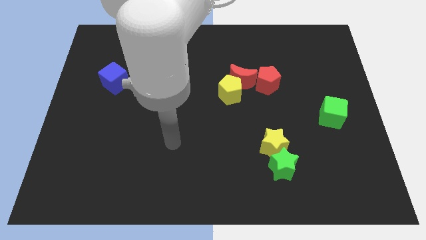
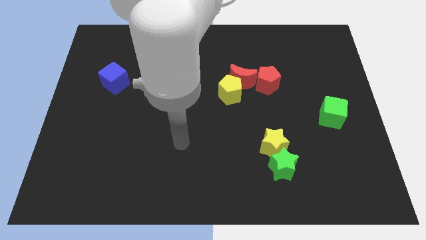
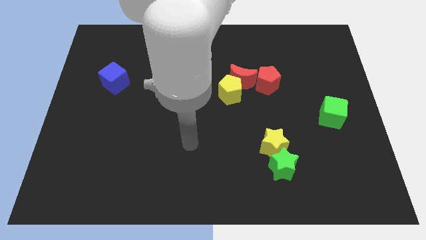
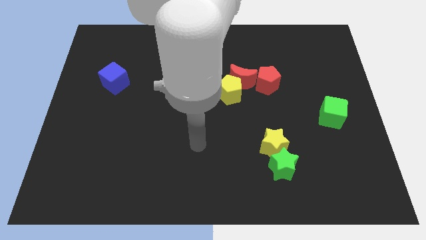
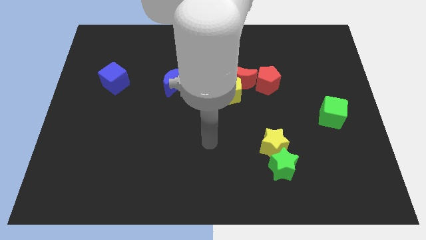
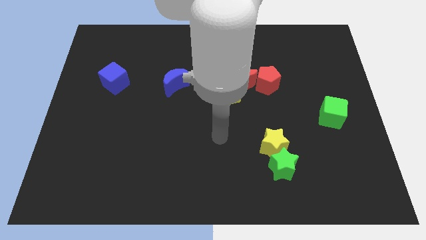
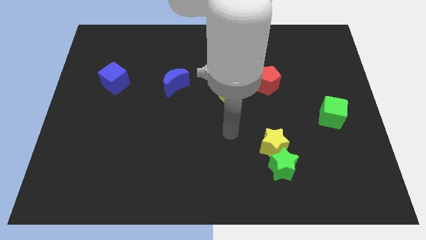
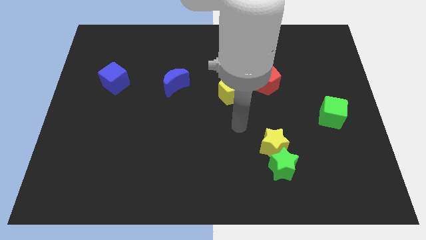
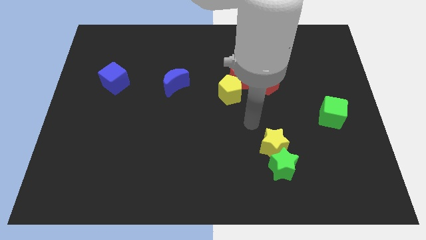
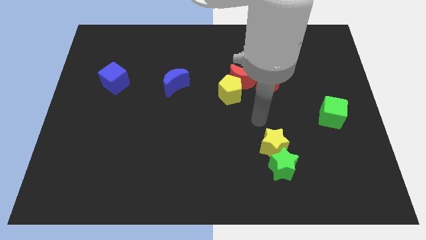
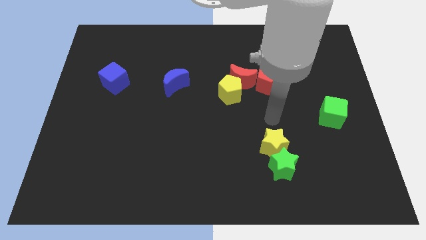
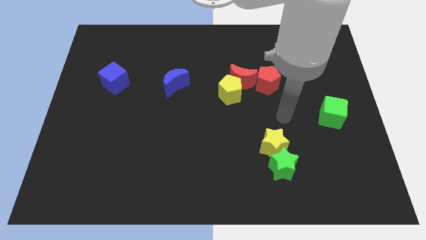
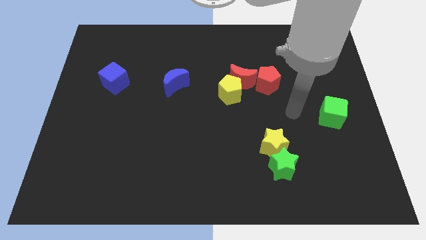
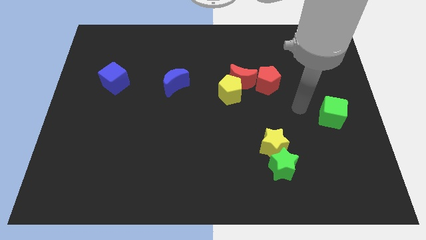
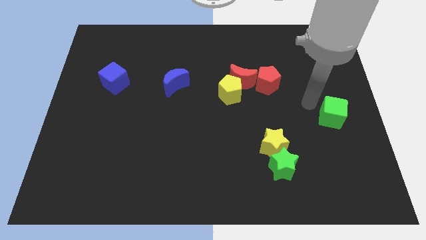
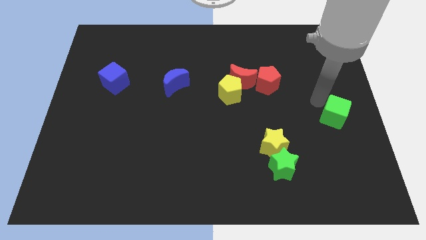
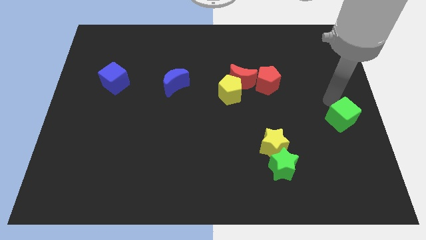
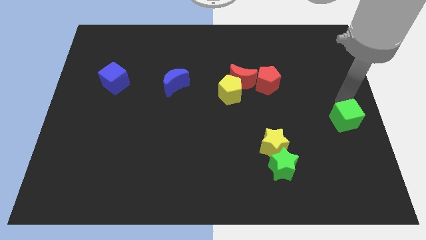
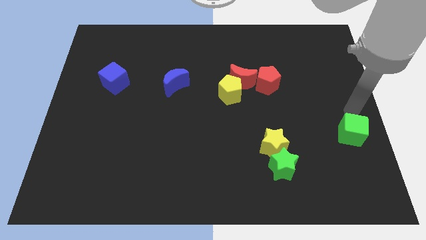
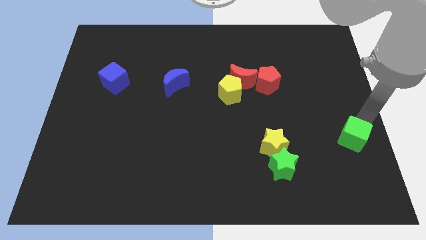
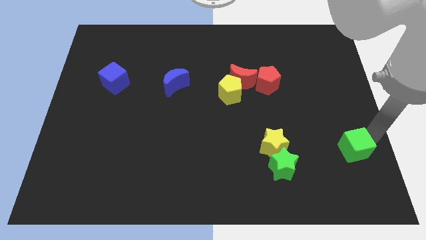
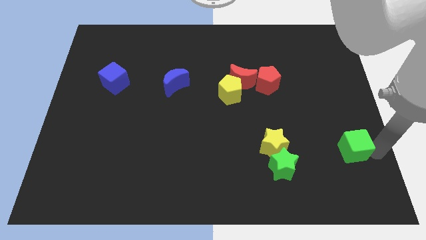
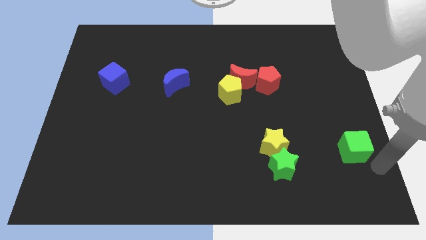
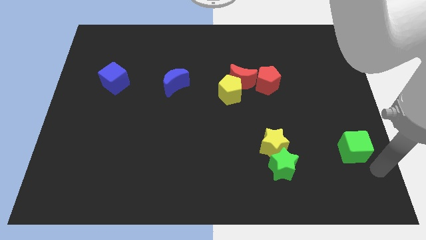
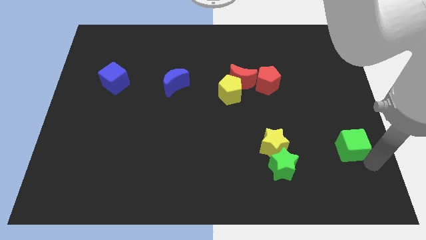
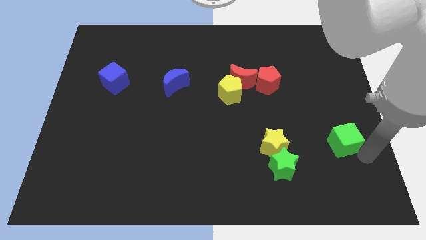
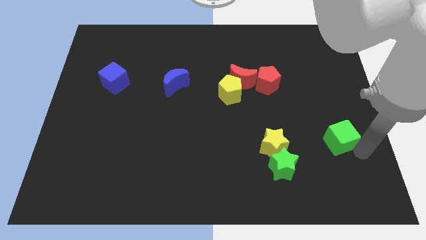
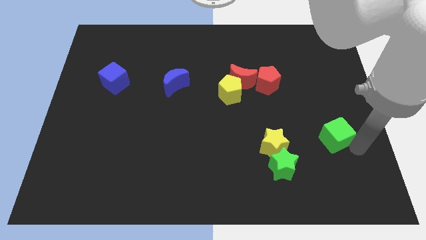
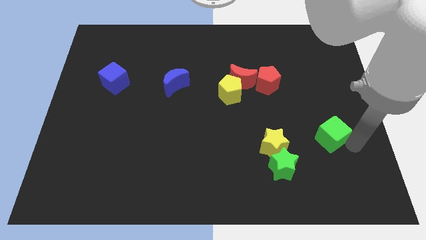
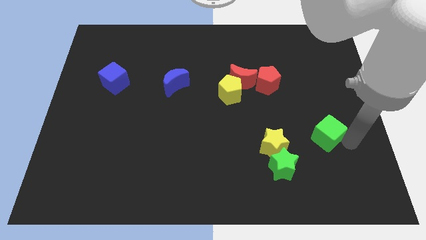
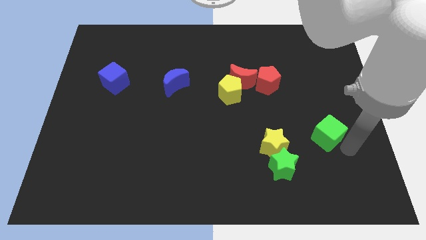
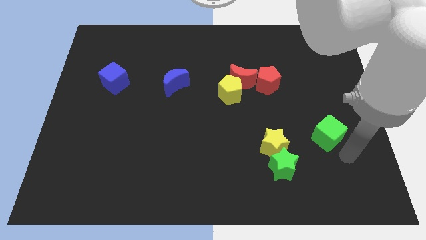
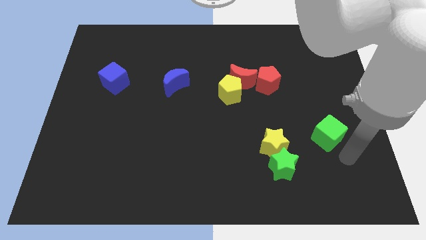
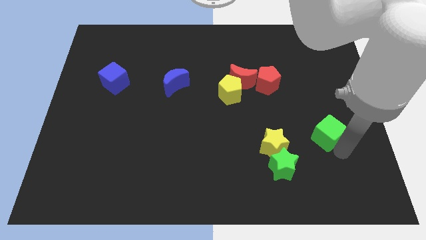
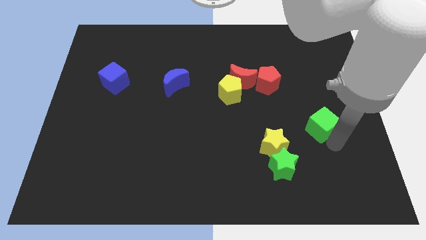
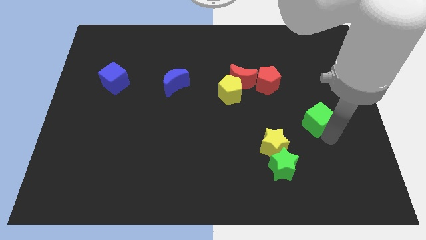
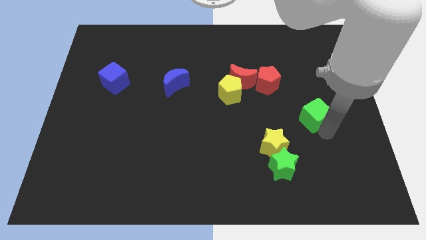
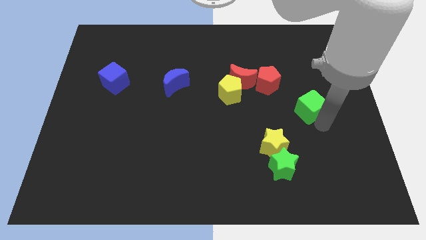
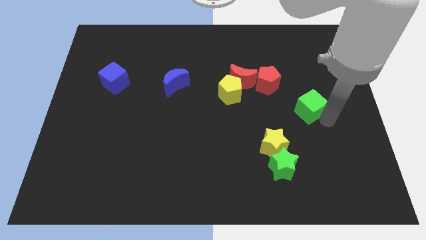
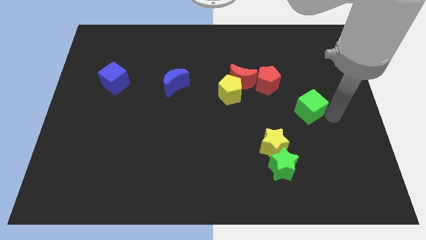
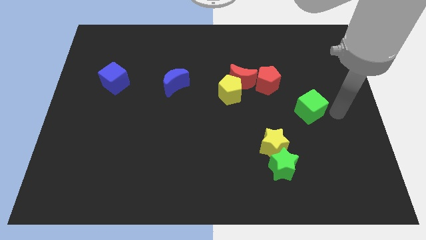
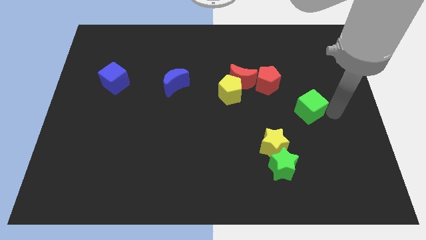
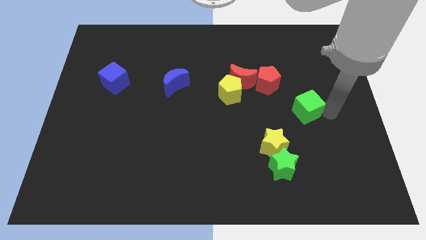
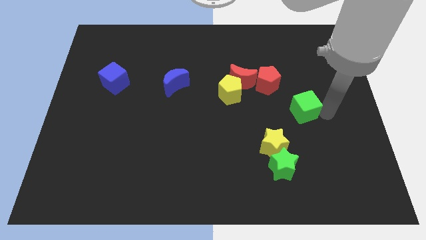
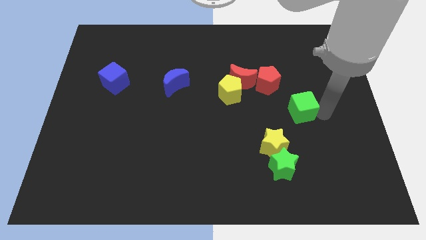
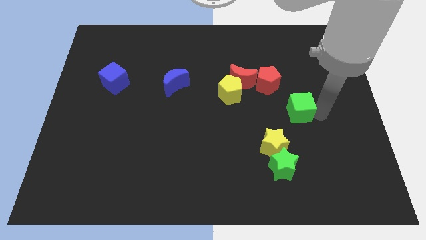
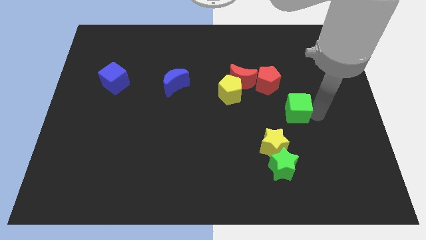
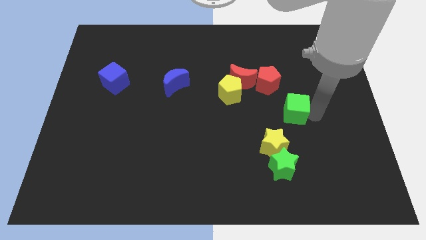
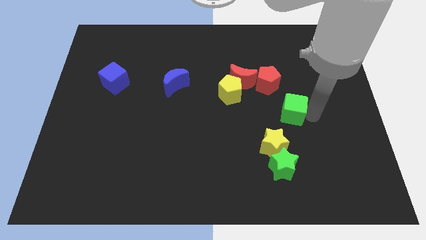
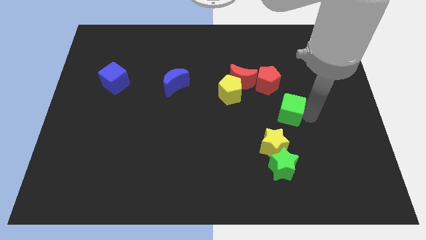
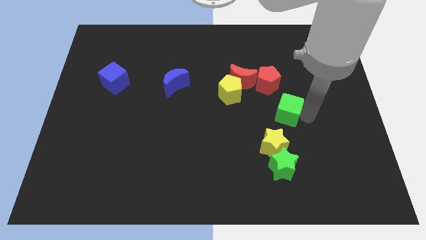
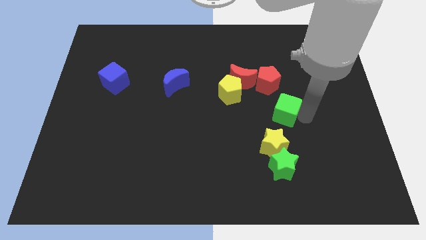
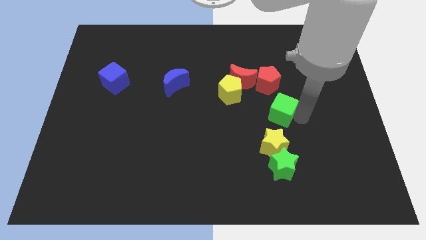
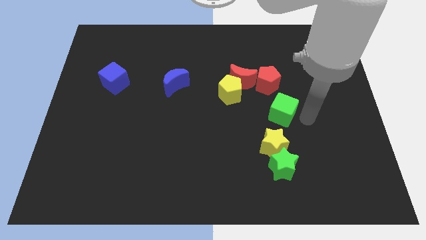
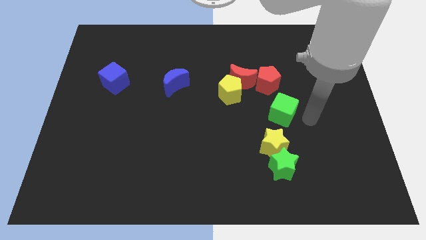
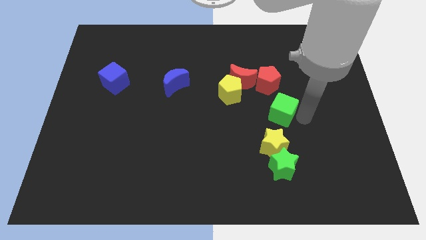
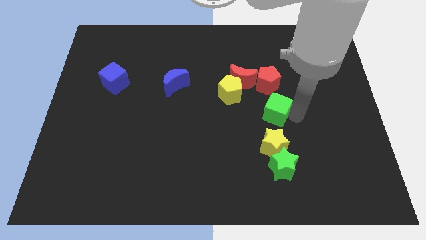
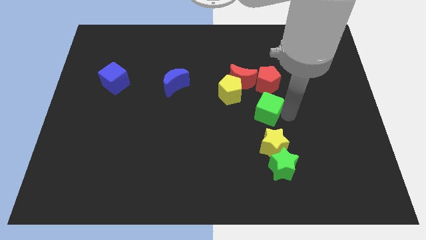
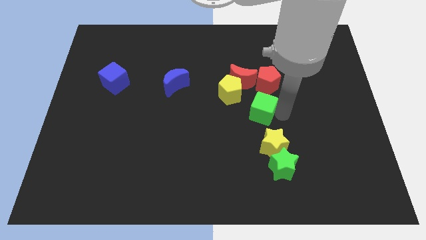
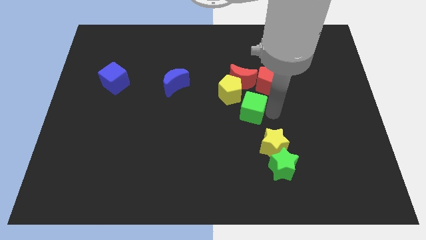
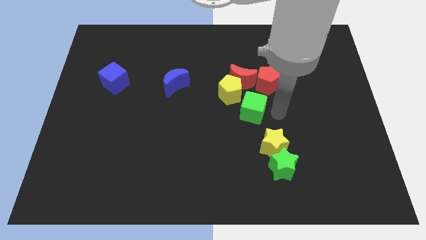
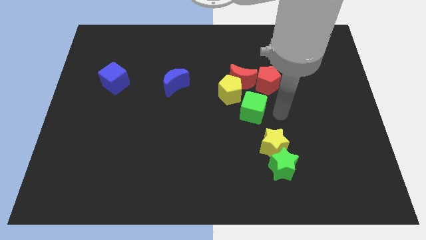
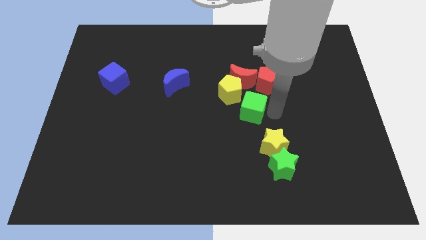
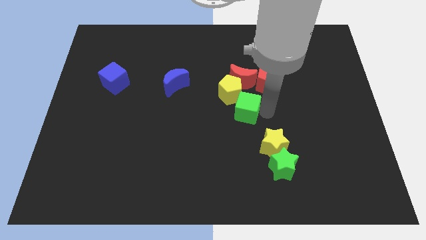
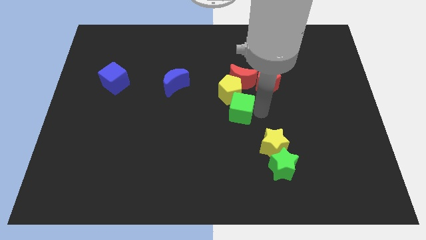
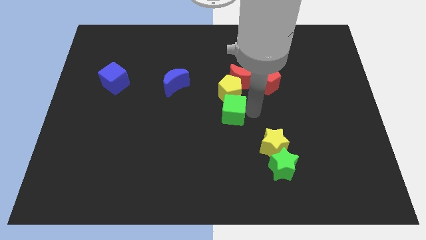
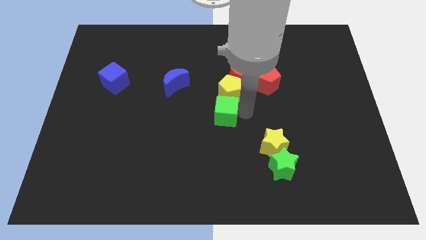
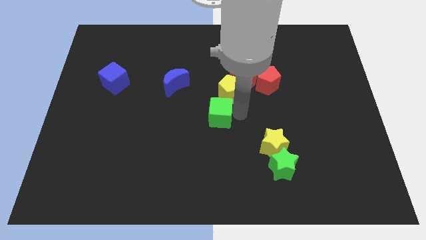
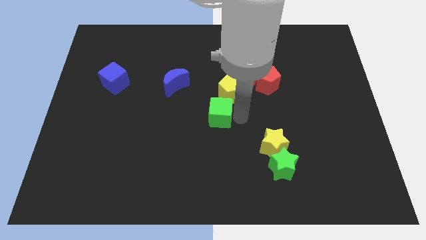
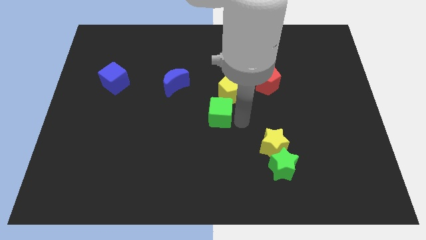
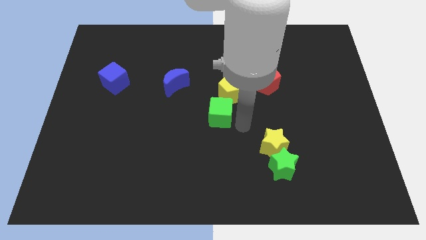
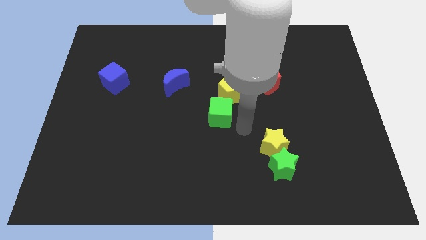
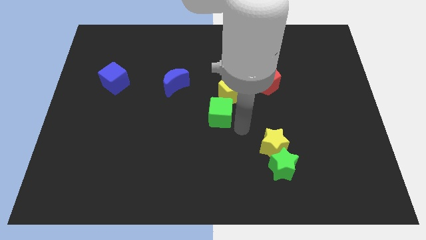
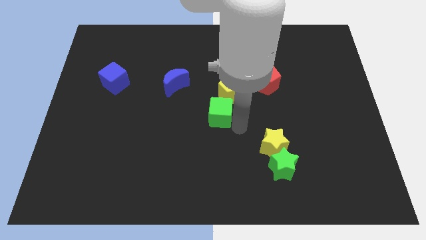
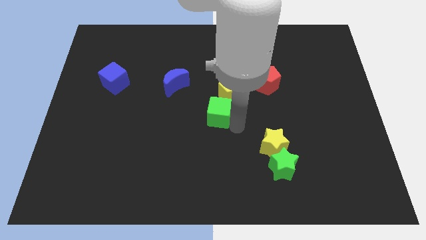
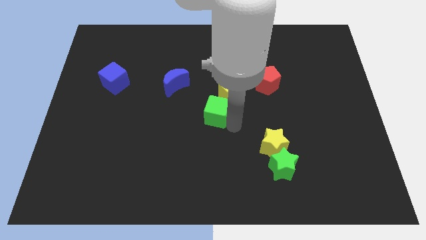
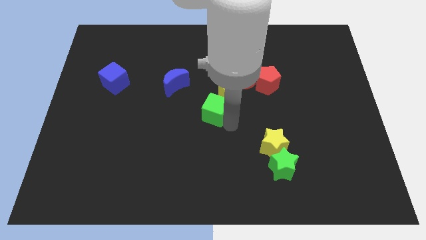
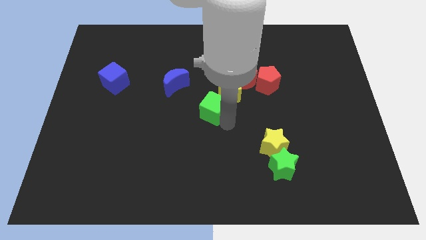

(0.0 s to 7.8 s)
move the green cube diagonally down and to the right of the blue moon
